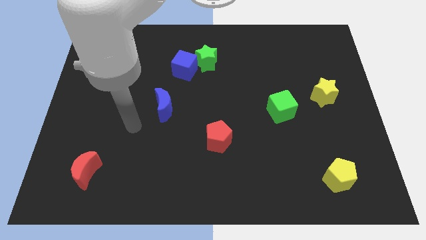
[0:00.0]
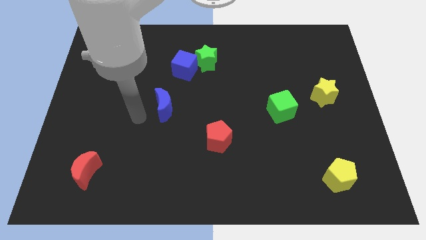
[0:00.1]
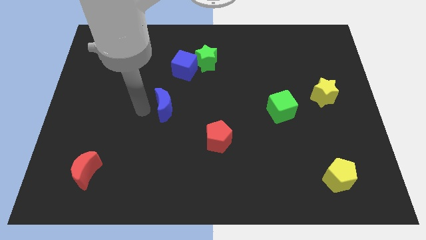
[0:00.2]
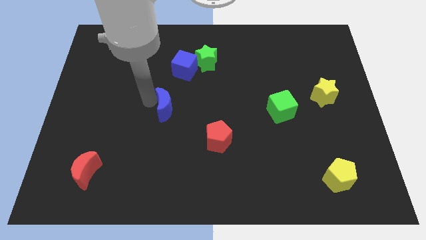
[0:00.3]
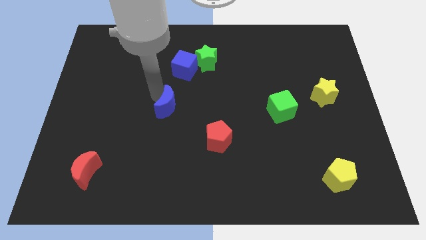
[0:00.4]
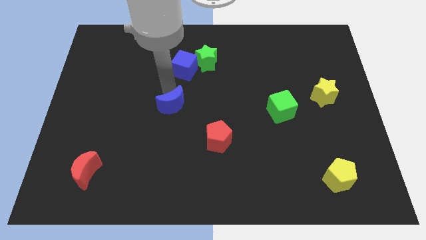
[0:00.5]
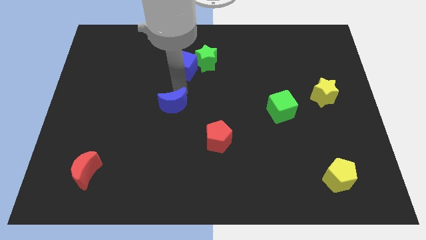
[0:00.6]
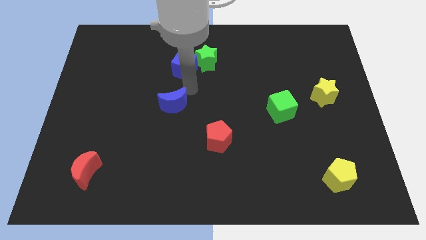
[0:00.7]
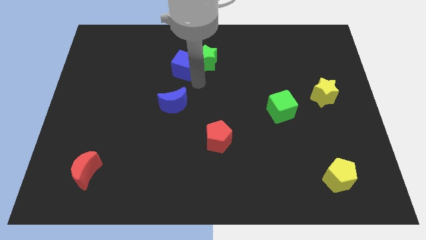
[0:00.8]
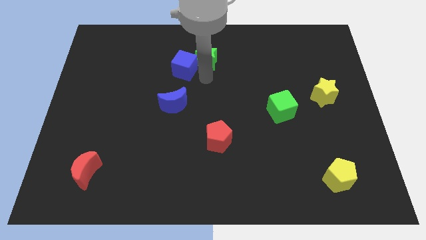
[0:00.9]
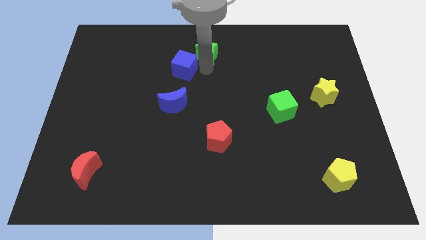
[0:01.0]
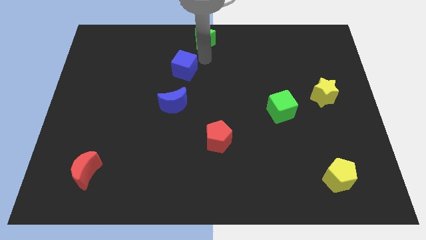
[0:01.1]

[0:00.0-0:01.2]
separate the blue cube from the green star

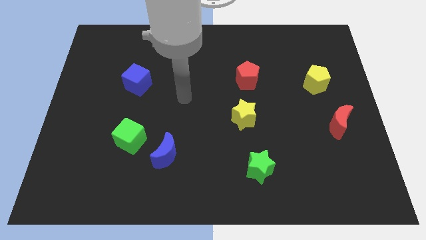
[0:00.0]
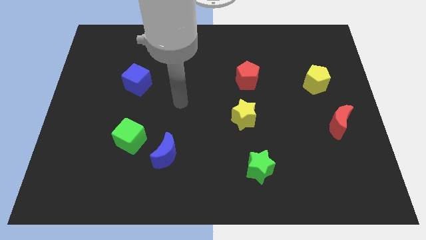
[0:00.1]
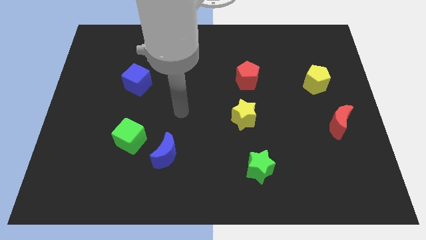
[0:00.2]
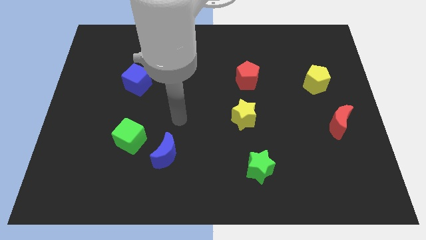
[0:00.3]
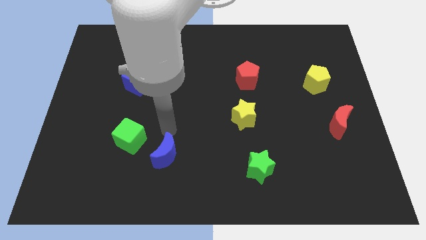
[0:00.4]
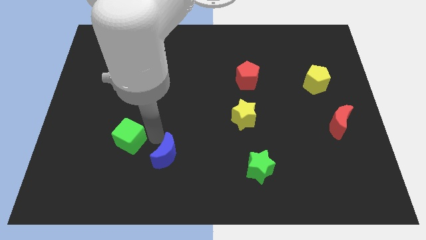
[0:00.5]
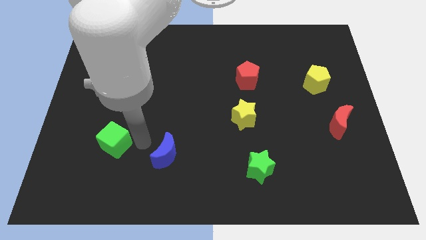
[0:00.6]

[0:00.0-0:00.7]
move the blue moon away from the green cube

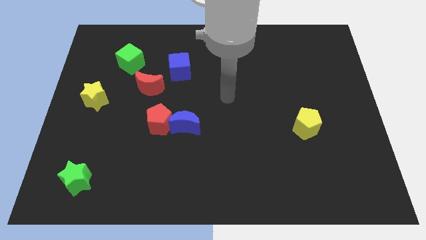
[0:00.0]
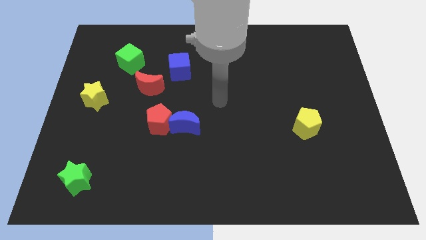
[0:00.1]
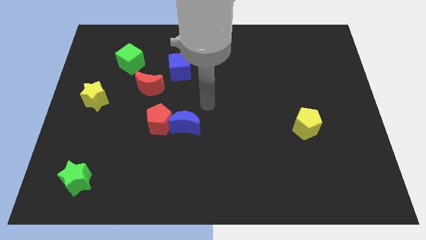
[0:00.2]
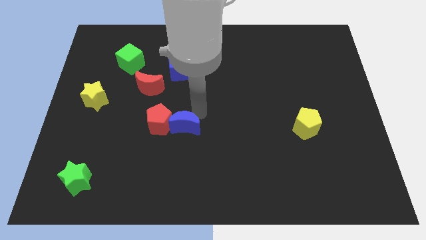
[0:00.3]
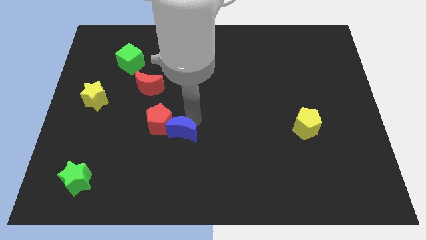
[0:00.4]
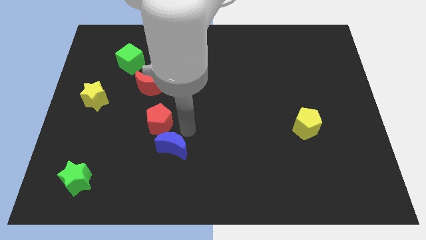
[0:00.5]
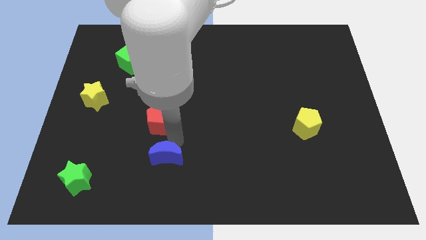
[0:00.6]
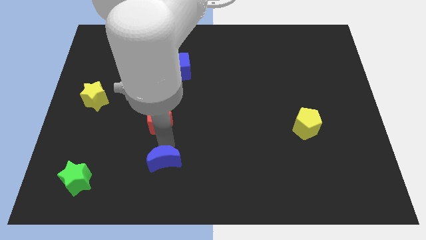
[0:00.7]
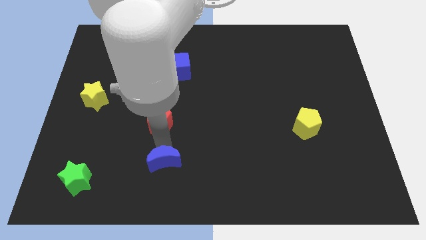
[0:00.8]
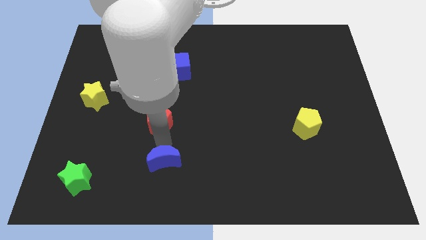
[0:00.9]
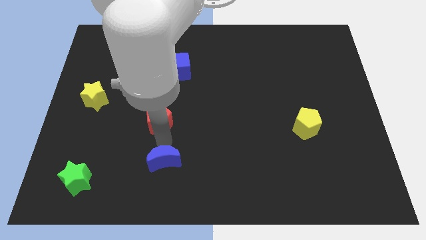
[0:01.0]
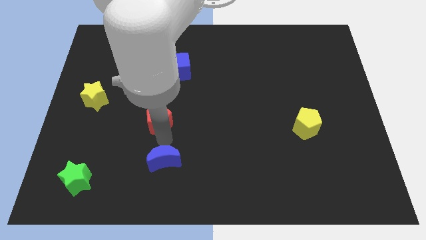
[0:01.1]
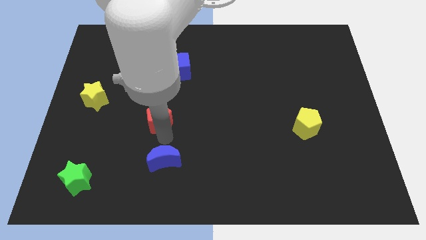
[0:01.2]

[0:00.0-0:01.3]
pull the red pentagon apart from the blue moon

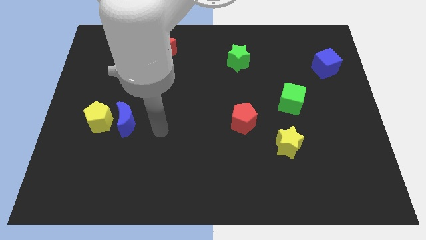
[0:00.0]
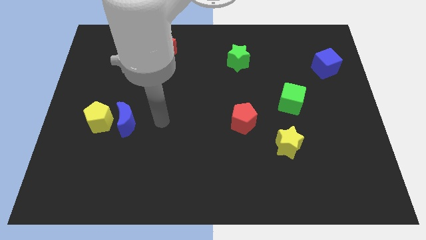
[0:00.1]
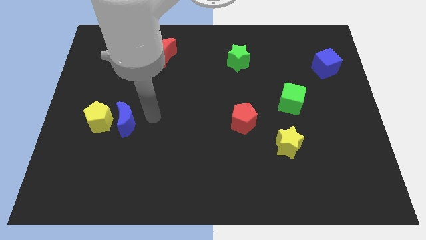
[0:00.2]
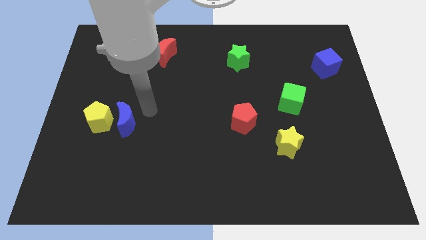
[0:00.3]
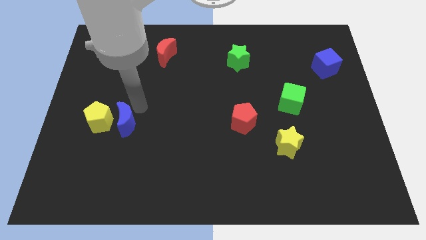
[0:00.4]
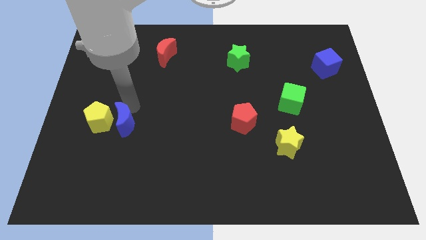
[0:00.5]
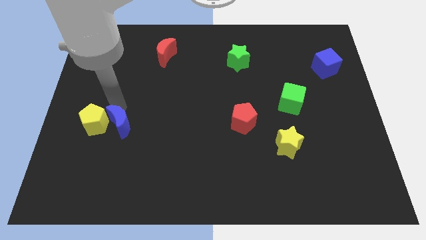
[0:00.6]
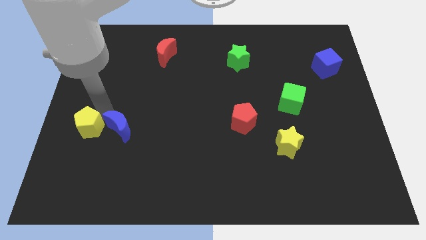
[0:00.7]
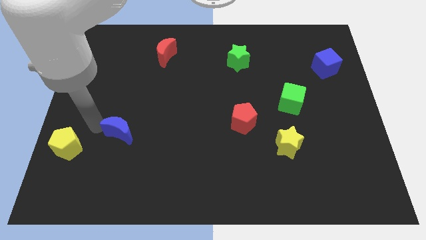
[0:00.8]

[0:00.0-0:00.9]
pull the blue moon apart from the yellow pentagon

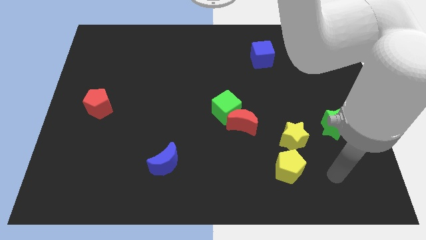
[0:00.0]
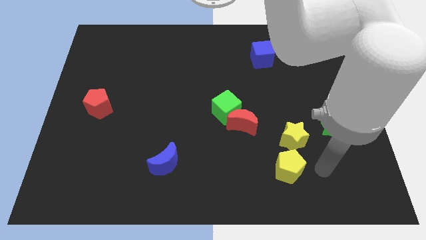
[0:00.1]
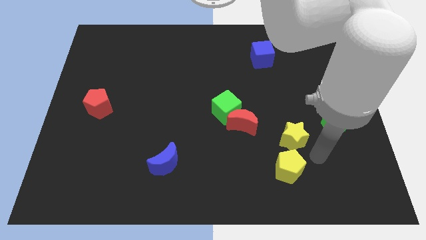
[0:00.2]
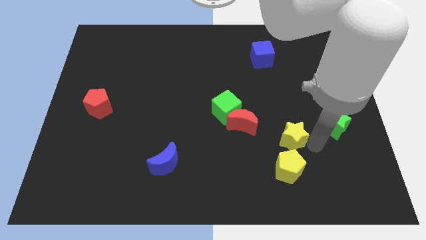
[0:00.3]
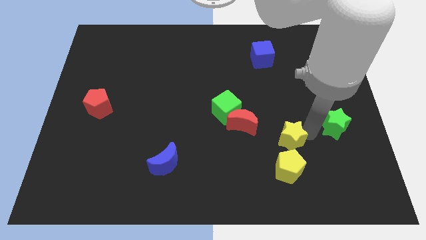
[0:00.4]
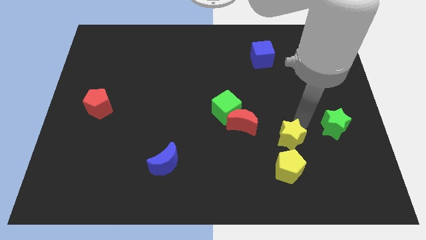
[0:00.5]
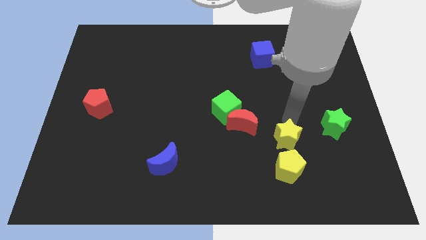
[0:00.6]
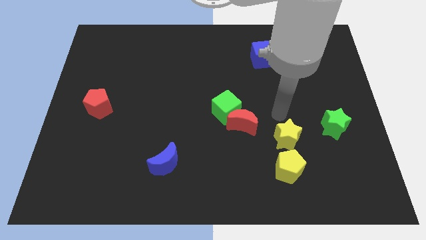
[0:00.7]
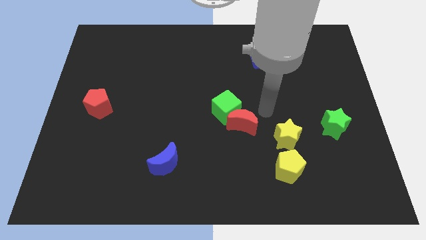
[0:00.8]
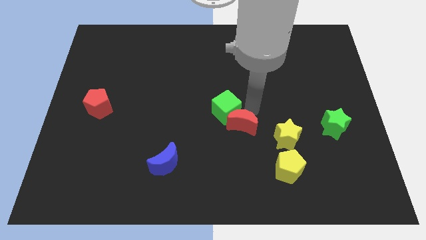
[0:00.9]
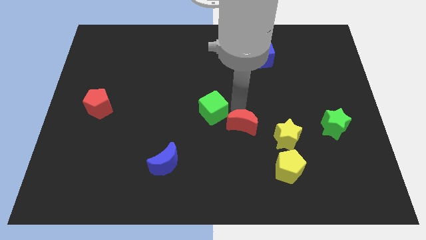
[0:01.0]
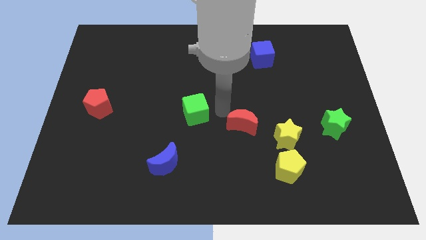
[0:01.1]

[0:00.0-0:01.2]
pull the red moon apart from the green cube

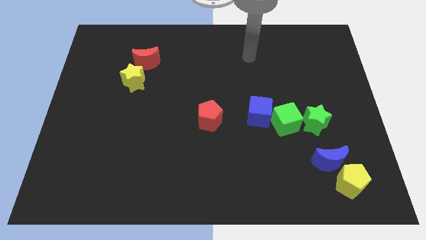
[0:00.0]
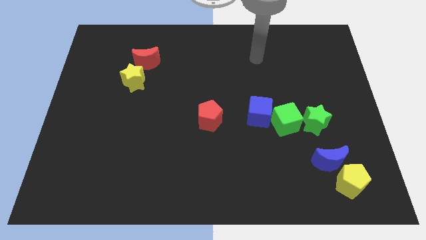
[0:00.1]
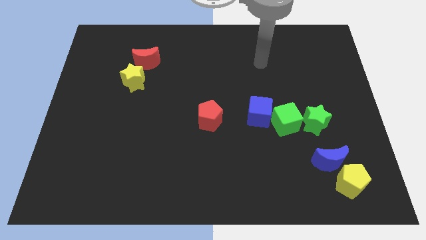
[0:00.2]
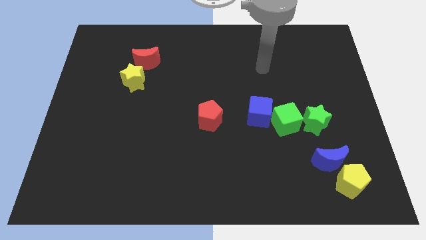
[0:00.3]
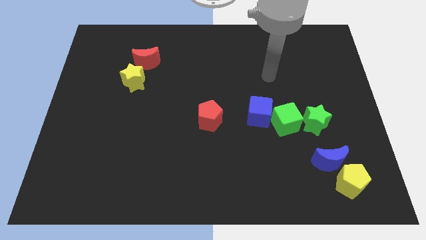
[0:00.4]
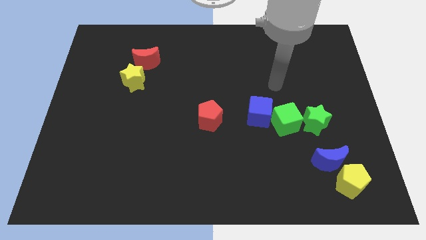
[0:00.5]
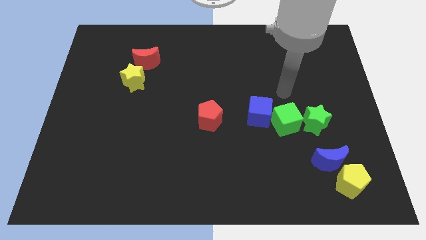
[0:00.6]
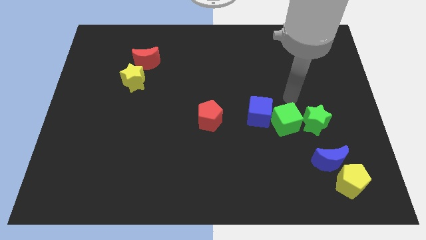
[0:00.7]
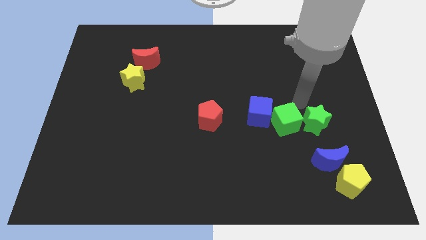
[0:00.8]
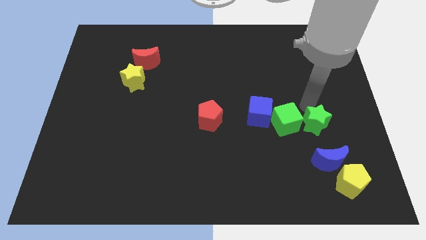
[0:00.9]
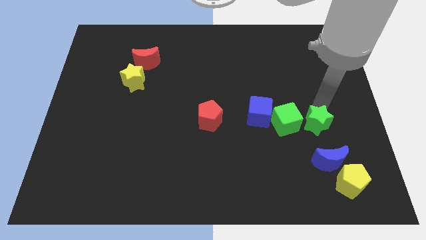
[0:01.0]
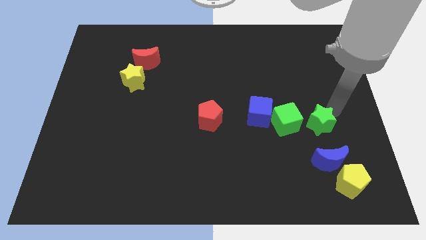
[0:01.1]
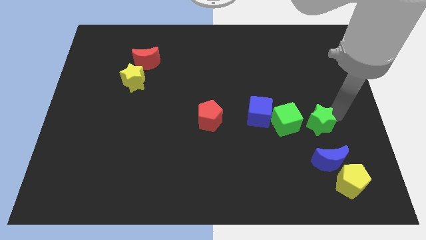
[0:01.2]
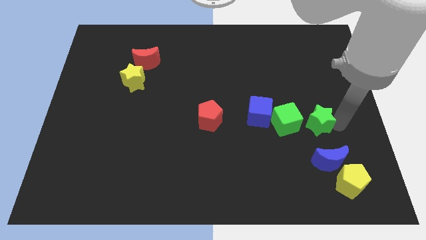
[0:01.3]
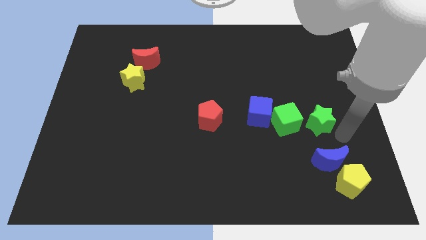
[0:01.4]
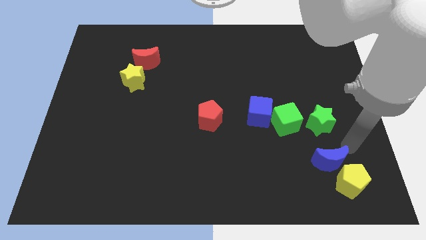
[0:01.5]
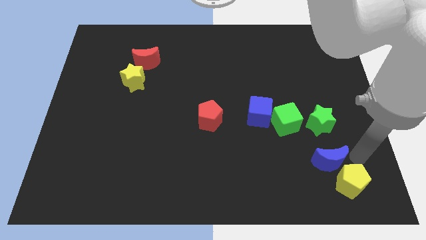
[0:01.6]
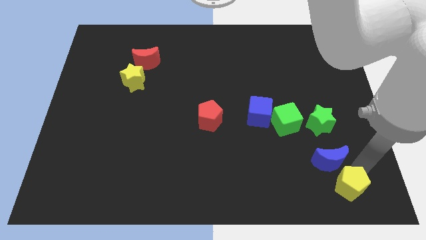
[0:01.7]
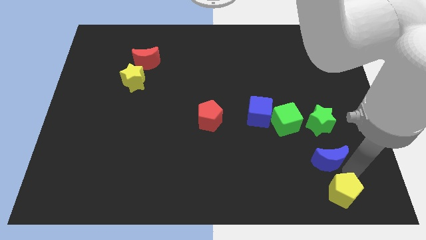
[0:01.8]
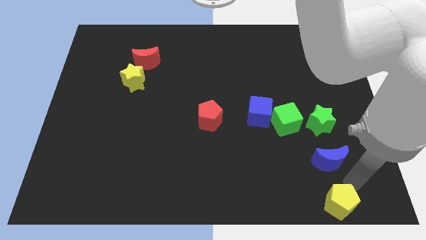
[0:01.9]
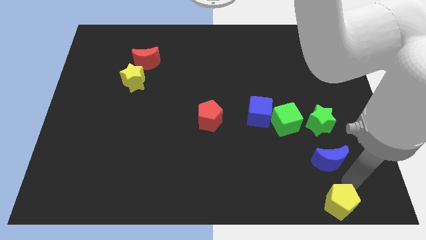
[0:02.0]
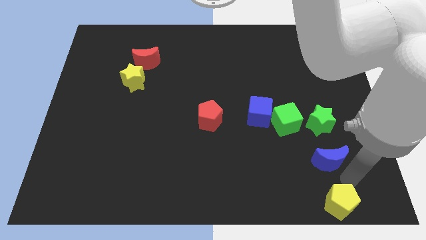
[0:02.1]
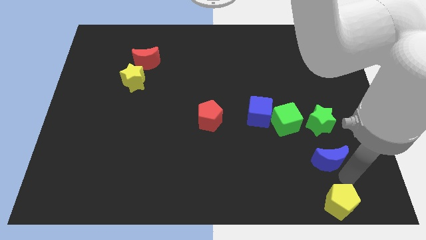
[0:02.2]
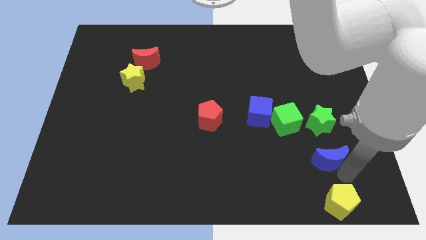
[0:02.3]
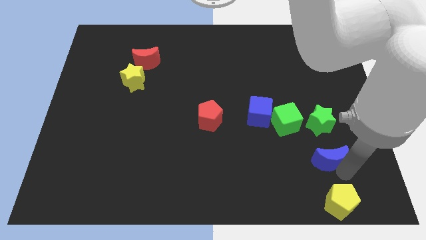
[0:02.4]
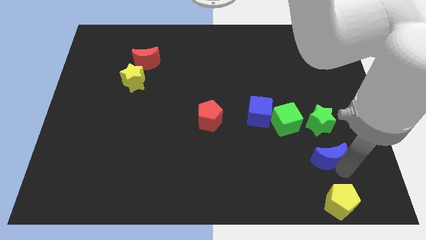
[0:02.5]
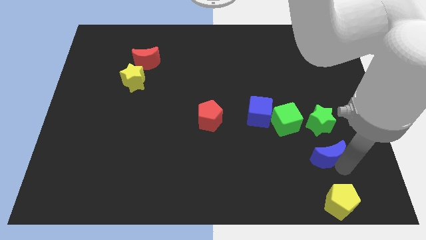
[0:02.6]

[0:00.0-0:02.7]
move the blue moon away from the yellow pentagon

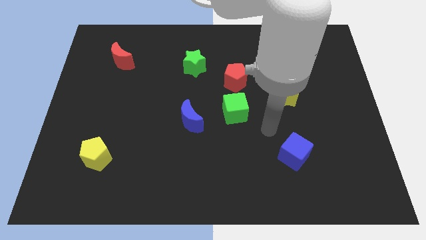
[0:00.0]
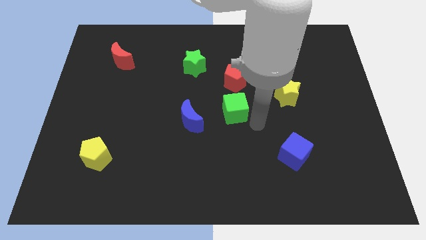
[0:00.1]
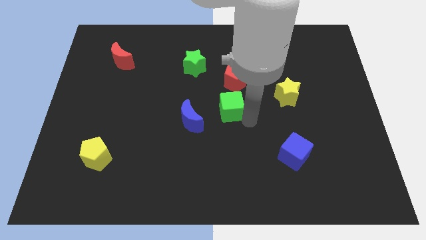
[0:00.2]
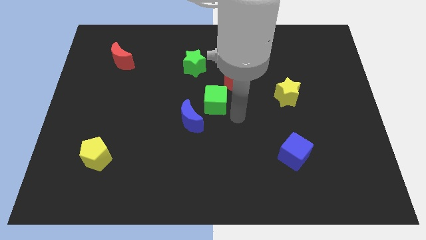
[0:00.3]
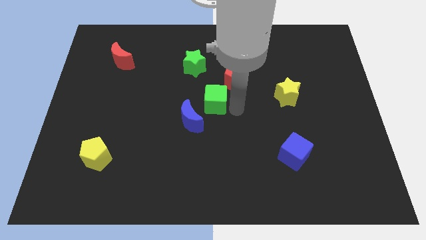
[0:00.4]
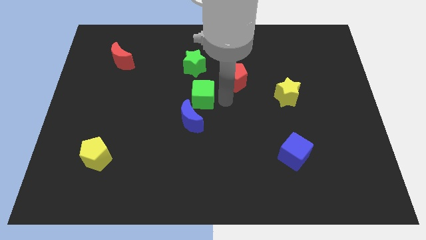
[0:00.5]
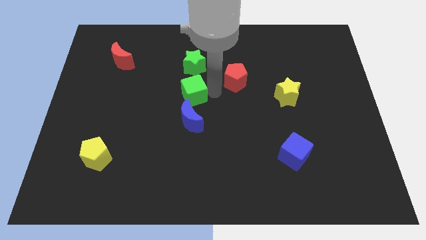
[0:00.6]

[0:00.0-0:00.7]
separate the red pentagon from the green cube

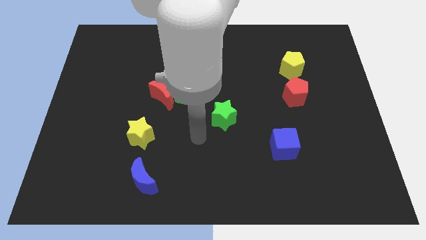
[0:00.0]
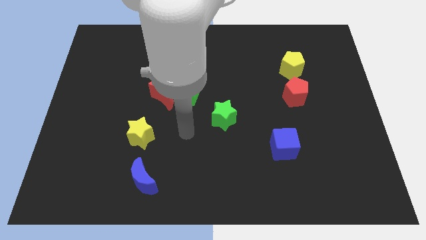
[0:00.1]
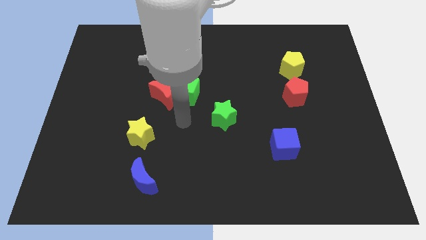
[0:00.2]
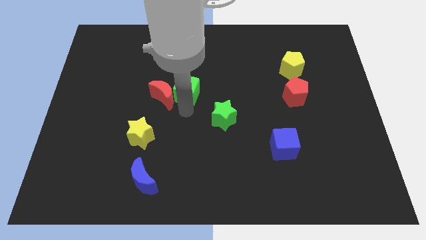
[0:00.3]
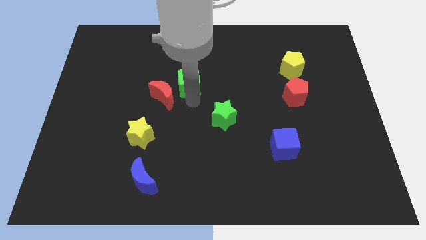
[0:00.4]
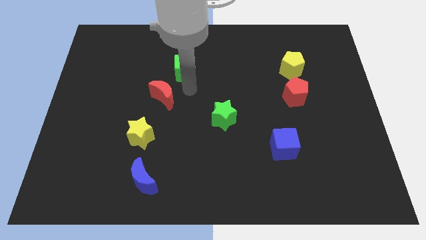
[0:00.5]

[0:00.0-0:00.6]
separate the red moon from the green cube
